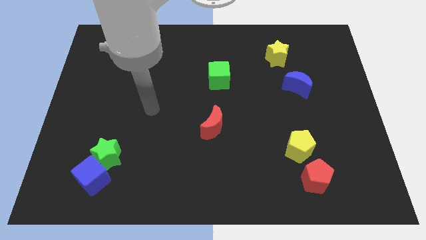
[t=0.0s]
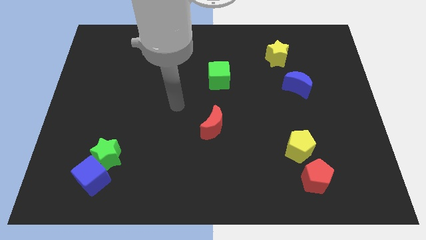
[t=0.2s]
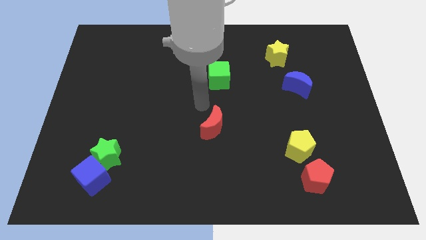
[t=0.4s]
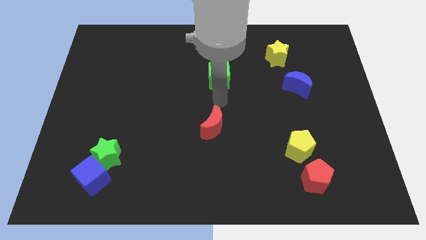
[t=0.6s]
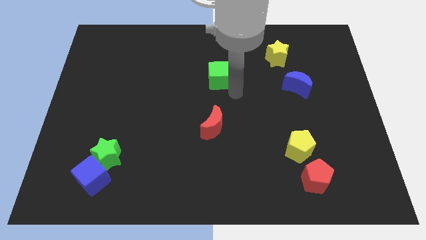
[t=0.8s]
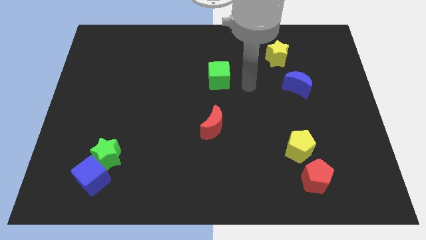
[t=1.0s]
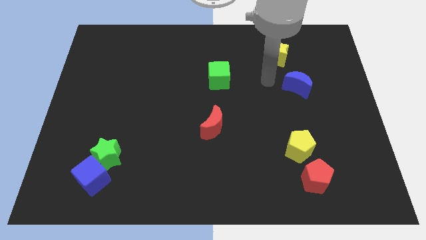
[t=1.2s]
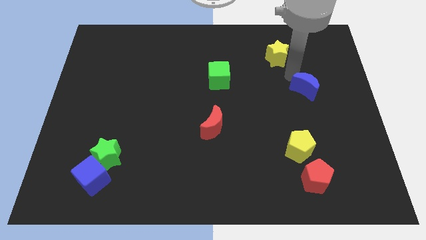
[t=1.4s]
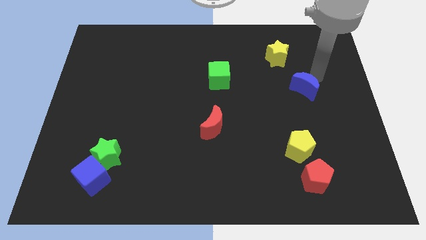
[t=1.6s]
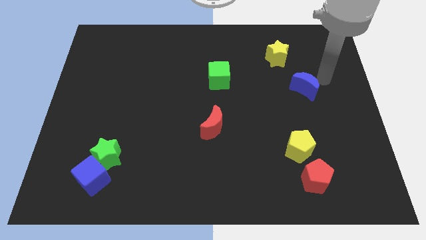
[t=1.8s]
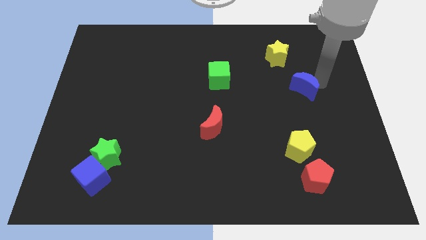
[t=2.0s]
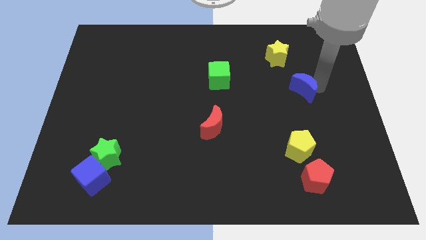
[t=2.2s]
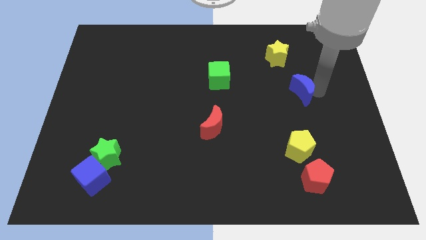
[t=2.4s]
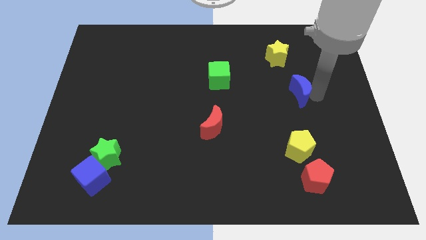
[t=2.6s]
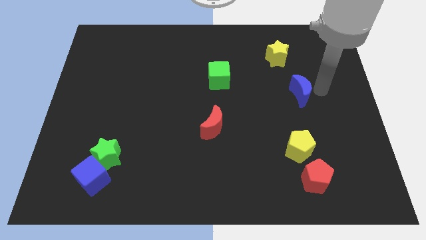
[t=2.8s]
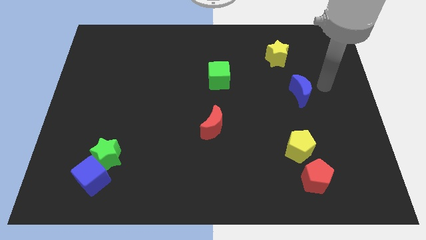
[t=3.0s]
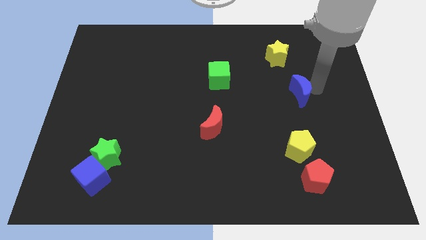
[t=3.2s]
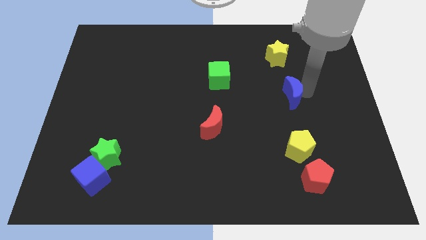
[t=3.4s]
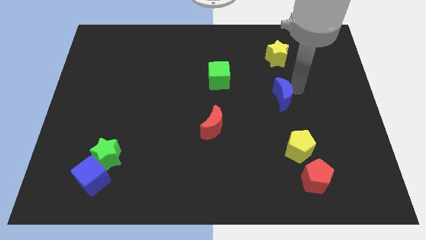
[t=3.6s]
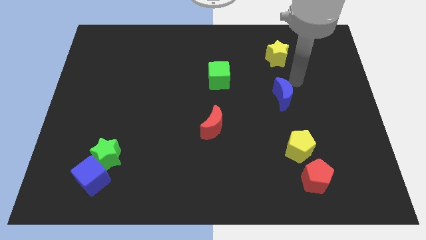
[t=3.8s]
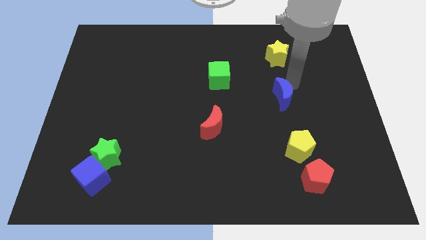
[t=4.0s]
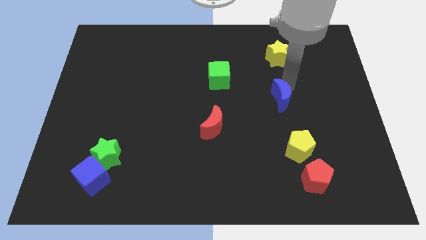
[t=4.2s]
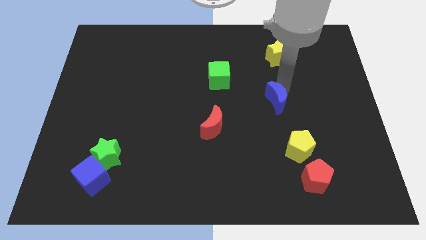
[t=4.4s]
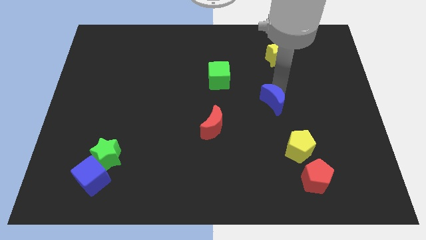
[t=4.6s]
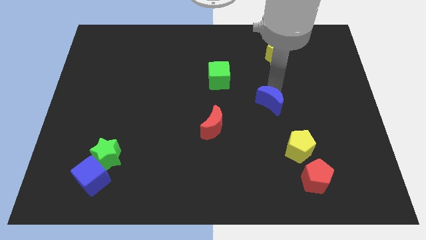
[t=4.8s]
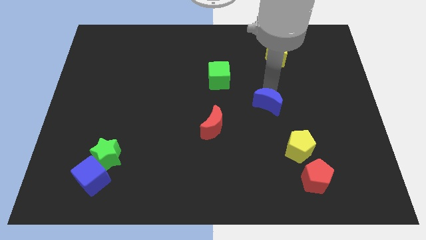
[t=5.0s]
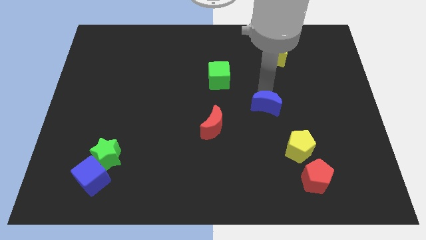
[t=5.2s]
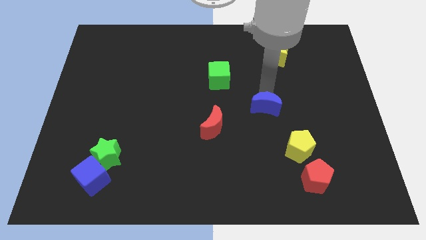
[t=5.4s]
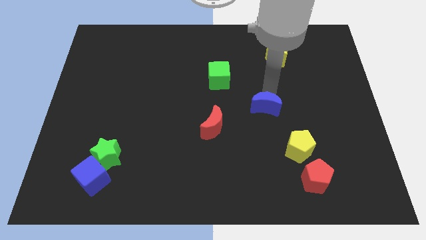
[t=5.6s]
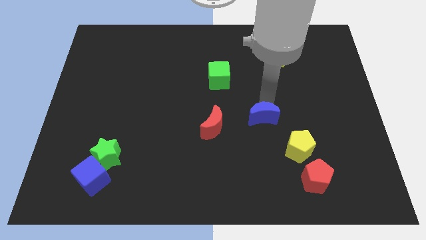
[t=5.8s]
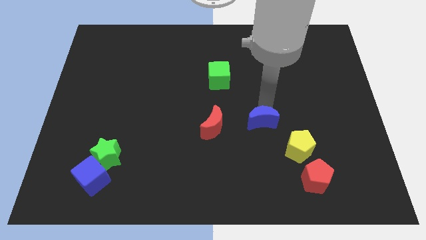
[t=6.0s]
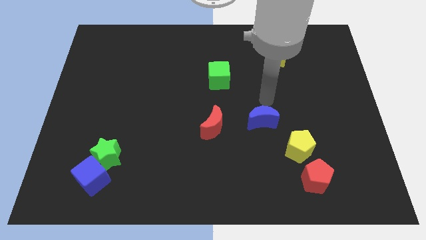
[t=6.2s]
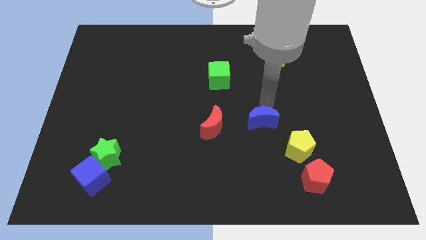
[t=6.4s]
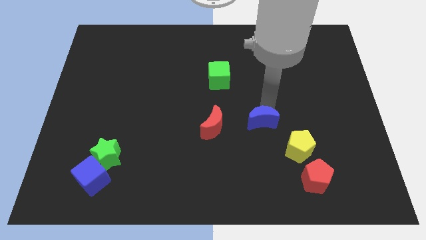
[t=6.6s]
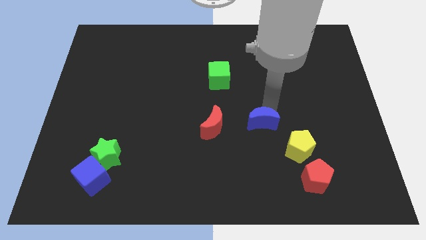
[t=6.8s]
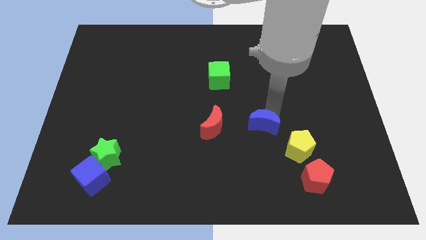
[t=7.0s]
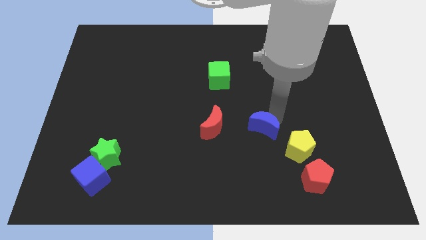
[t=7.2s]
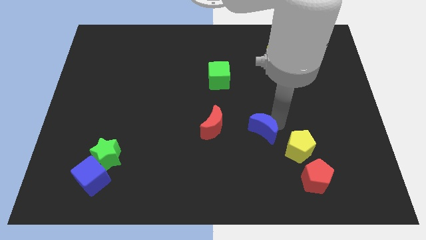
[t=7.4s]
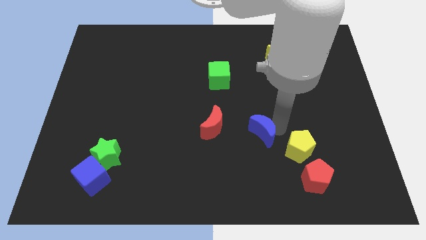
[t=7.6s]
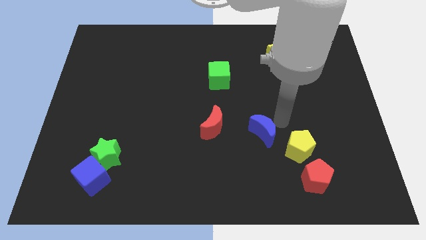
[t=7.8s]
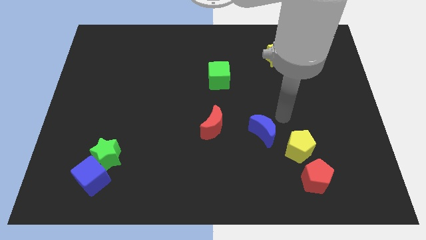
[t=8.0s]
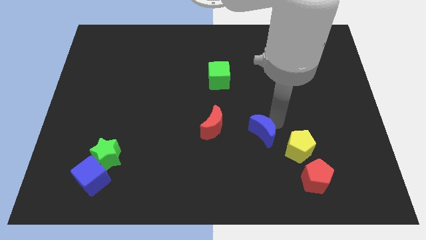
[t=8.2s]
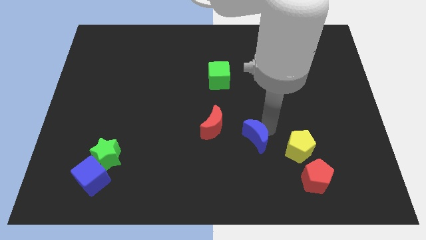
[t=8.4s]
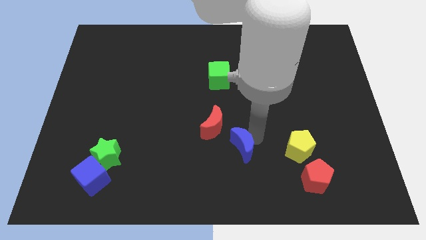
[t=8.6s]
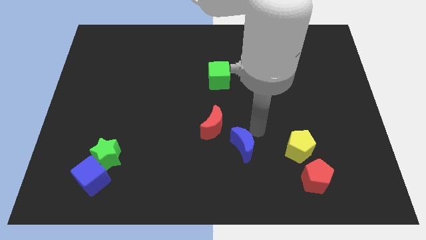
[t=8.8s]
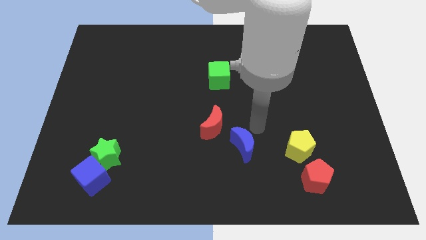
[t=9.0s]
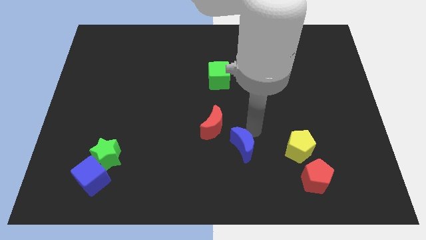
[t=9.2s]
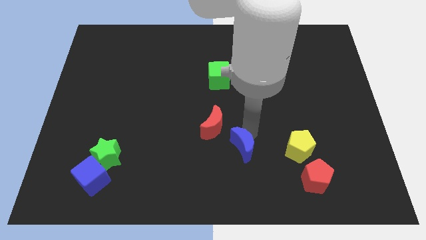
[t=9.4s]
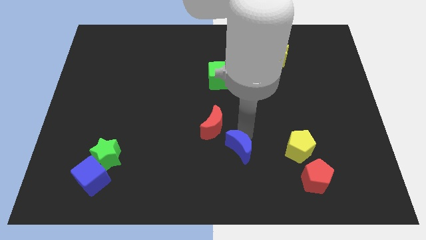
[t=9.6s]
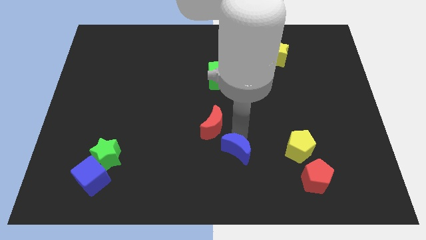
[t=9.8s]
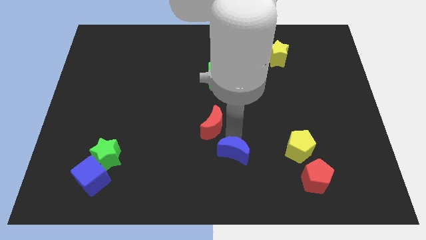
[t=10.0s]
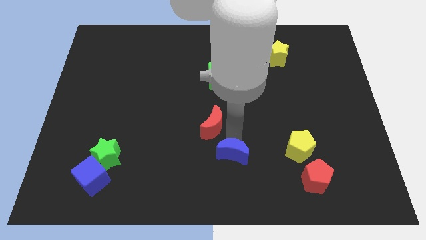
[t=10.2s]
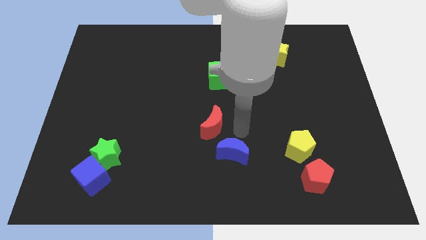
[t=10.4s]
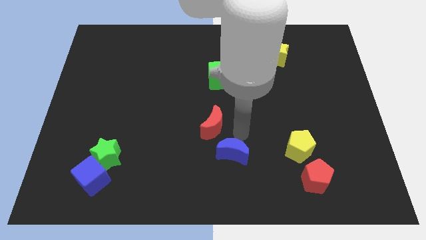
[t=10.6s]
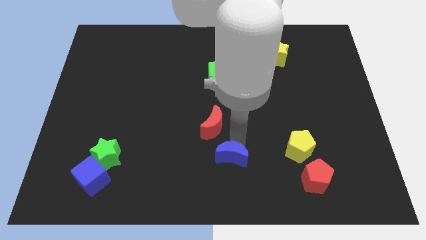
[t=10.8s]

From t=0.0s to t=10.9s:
slide the blue moon to the bottom

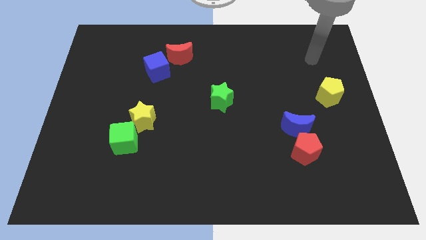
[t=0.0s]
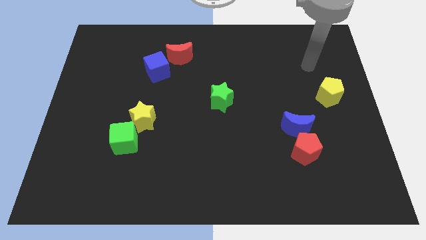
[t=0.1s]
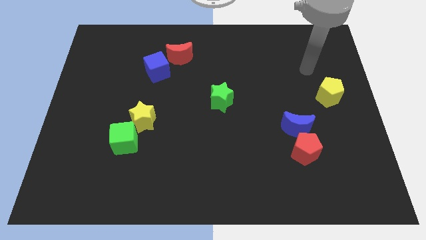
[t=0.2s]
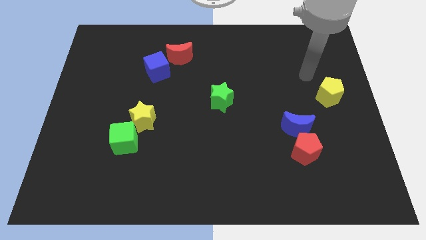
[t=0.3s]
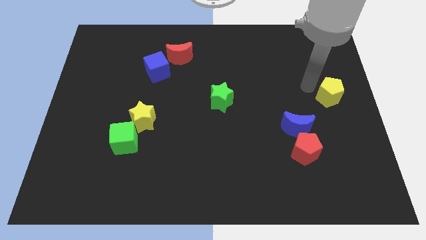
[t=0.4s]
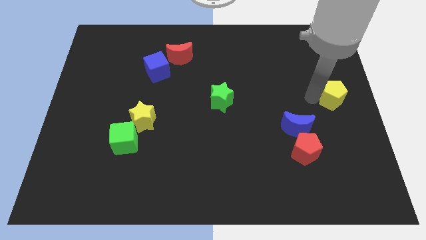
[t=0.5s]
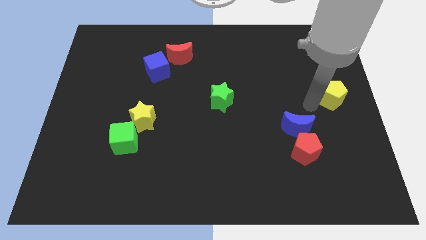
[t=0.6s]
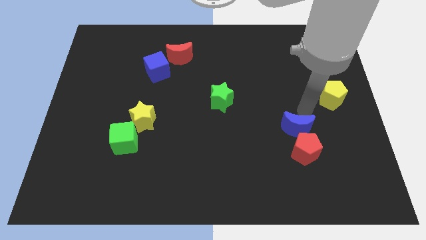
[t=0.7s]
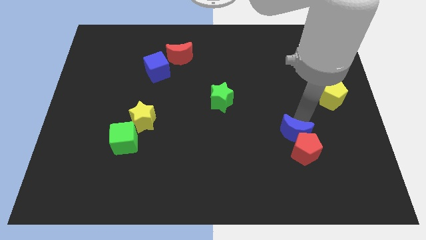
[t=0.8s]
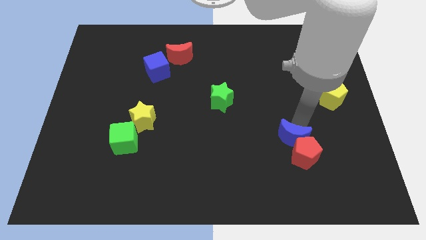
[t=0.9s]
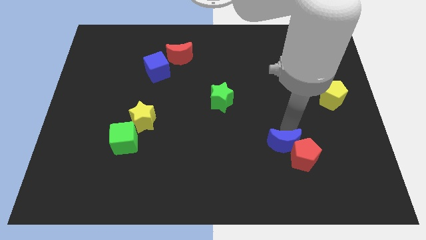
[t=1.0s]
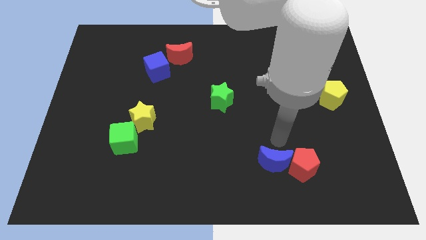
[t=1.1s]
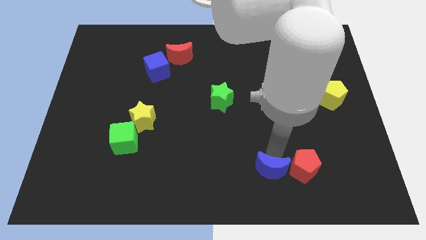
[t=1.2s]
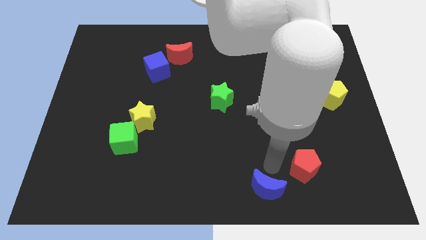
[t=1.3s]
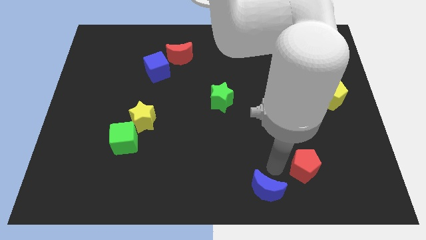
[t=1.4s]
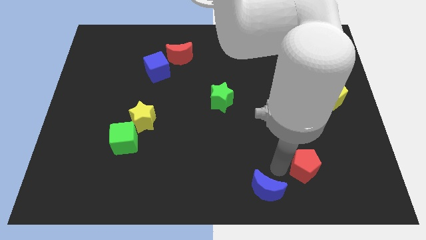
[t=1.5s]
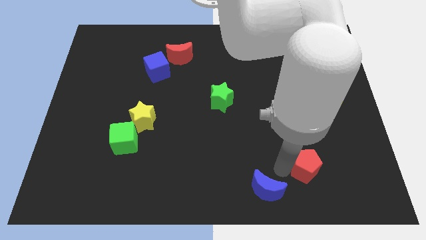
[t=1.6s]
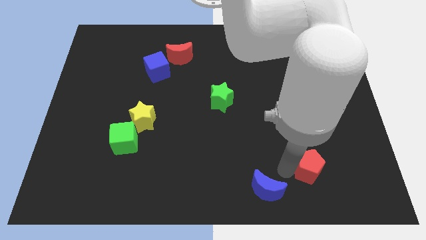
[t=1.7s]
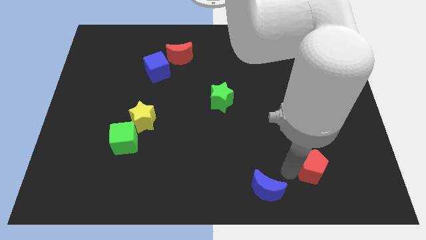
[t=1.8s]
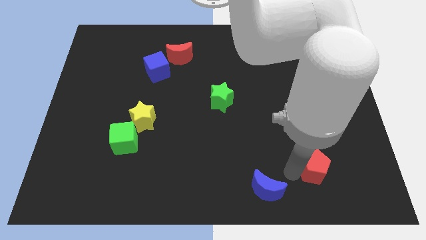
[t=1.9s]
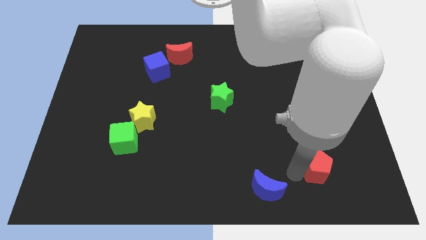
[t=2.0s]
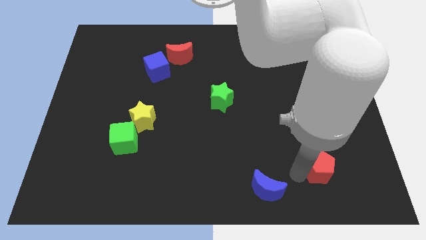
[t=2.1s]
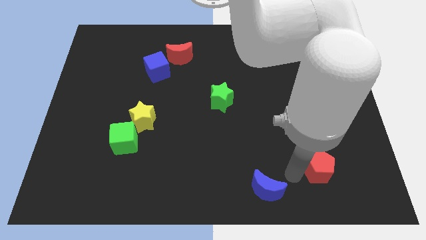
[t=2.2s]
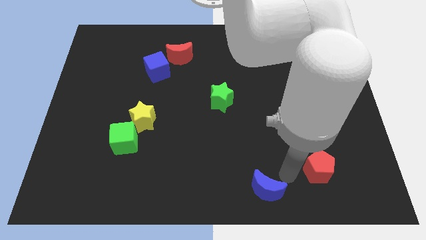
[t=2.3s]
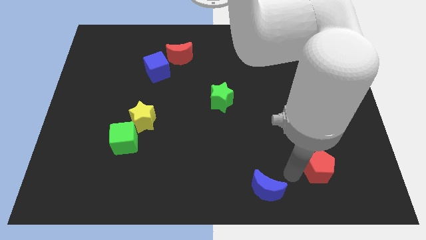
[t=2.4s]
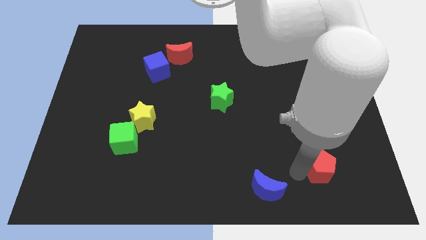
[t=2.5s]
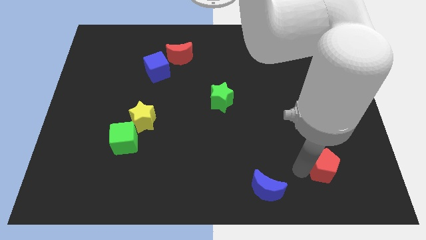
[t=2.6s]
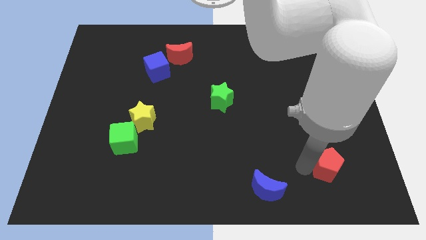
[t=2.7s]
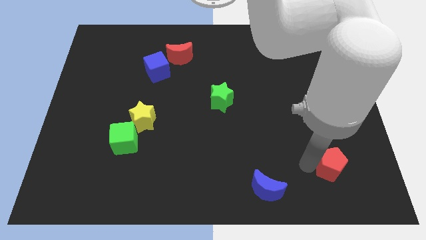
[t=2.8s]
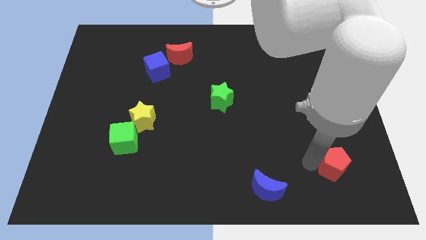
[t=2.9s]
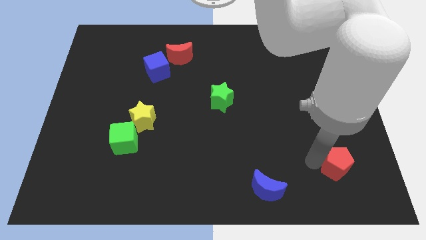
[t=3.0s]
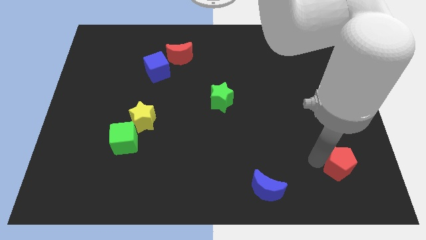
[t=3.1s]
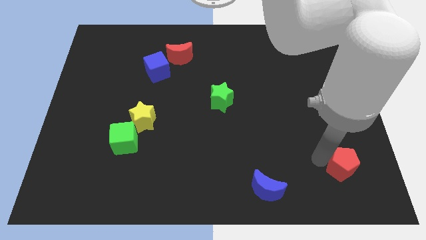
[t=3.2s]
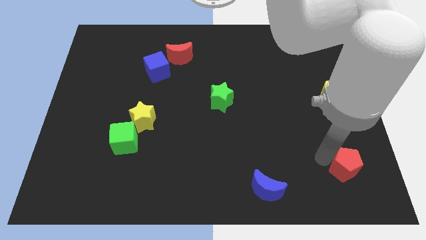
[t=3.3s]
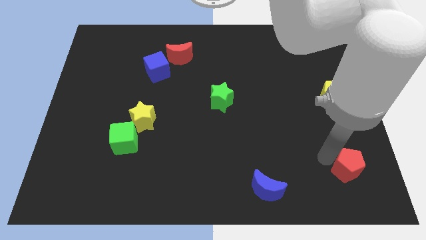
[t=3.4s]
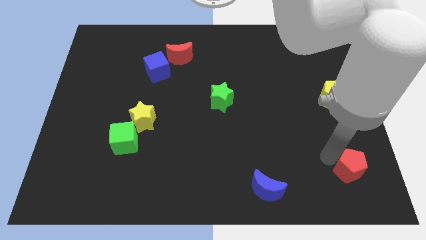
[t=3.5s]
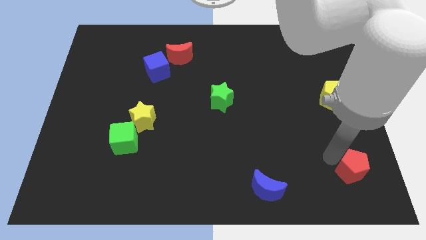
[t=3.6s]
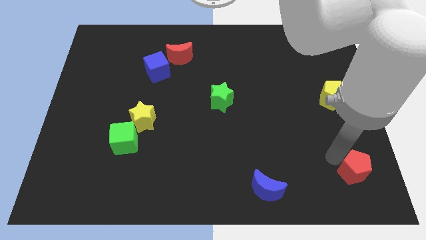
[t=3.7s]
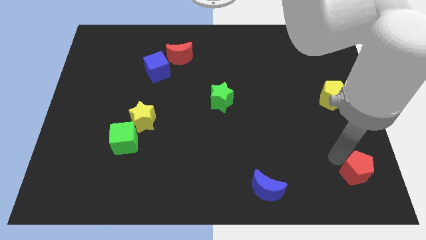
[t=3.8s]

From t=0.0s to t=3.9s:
slide the red pentagon to the bottom right
